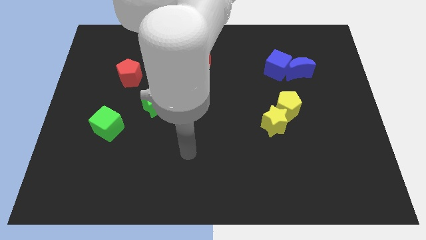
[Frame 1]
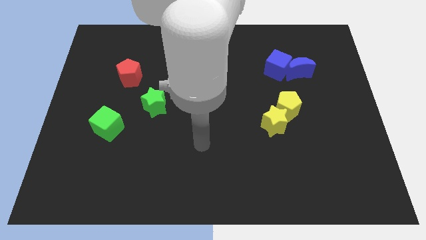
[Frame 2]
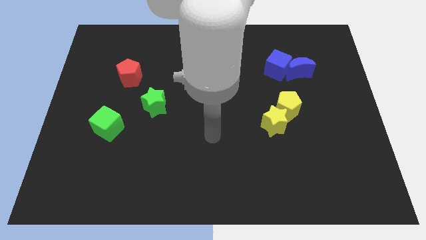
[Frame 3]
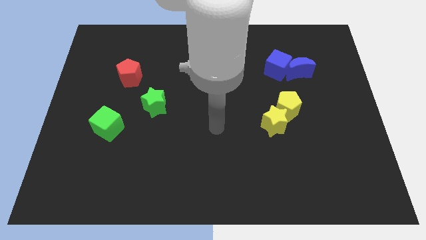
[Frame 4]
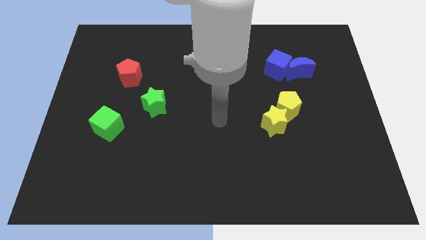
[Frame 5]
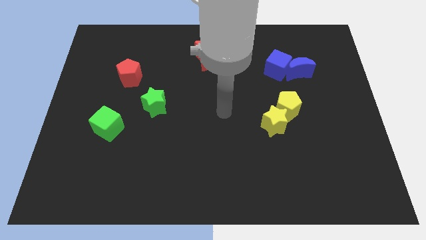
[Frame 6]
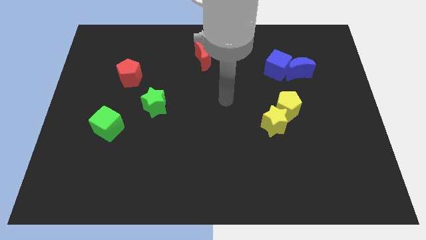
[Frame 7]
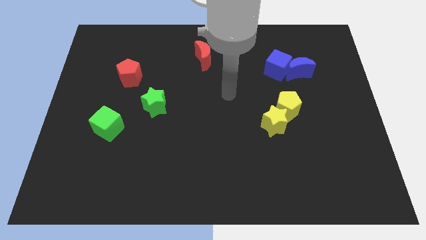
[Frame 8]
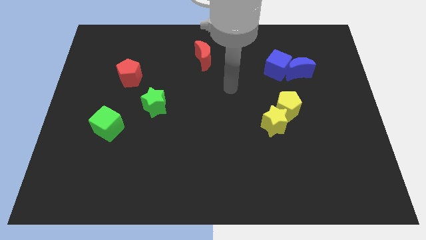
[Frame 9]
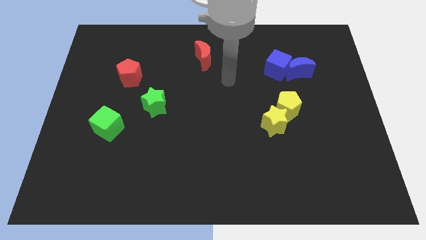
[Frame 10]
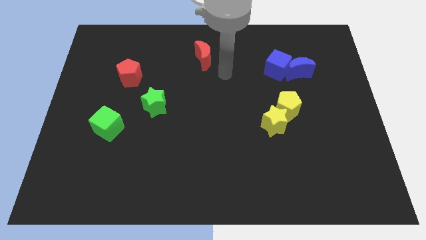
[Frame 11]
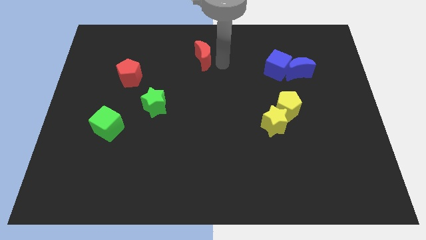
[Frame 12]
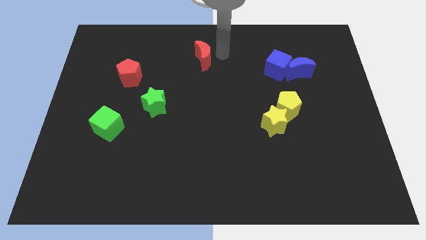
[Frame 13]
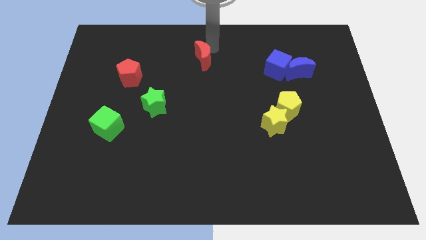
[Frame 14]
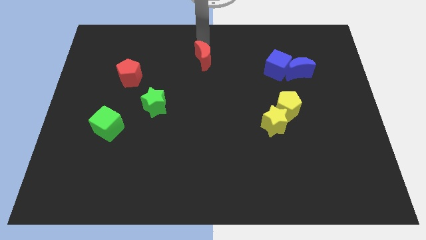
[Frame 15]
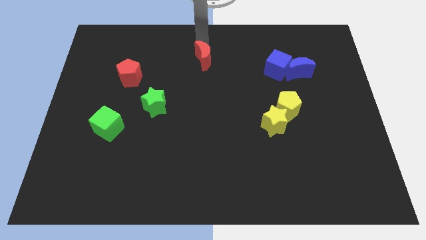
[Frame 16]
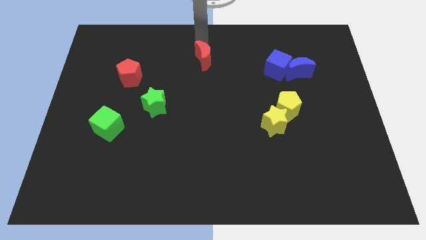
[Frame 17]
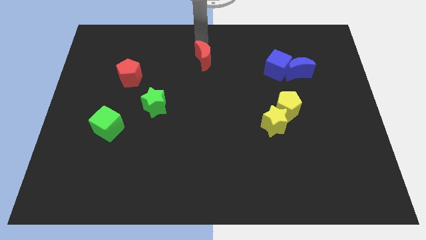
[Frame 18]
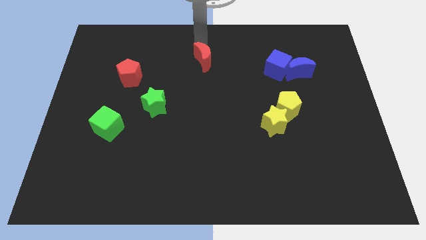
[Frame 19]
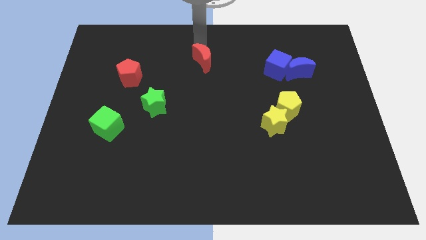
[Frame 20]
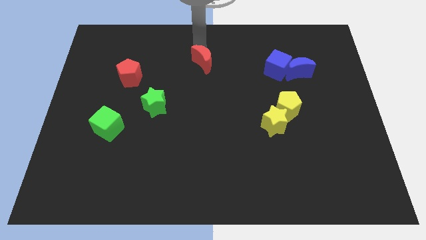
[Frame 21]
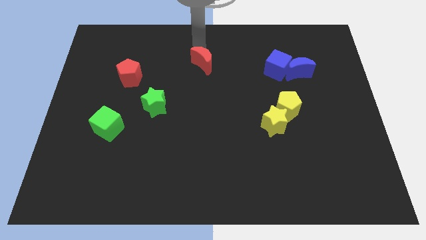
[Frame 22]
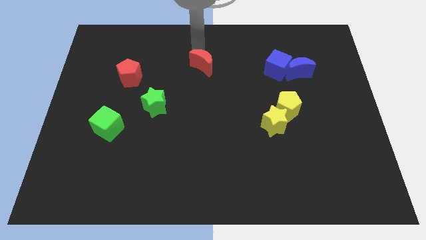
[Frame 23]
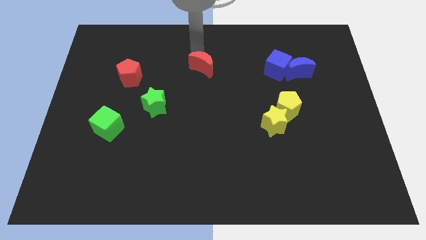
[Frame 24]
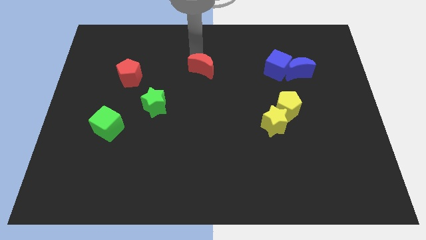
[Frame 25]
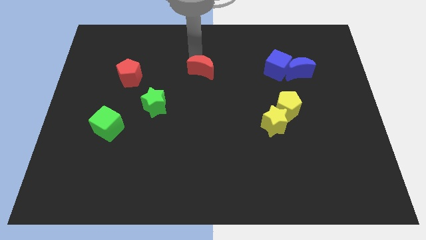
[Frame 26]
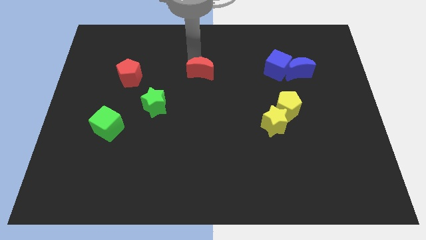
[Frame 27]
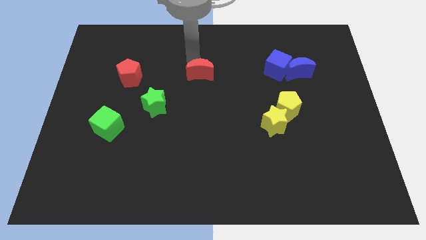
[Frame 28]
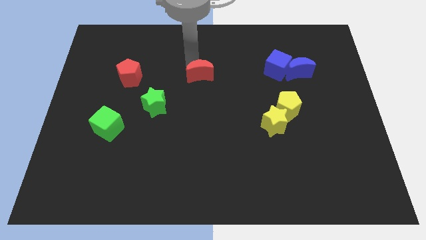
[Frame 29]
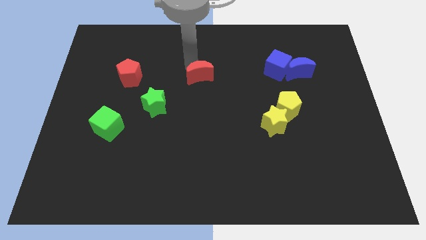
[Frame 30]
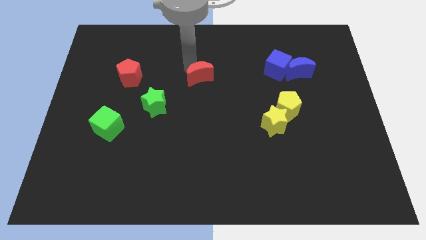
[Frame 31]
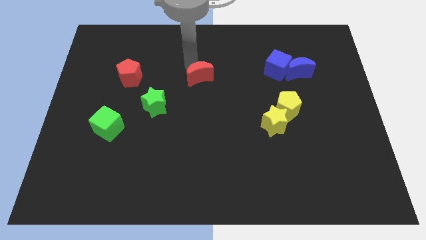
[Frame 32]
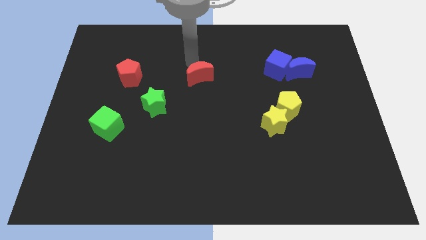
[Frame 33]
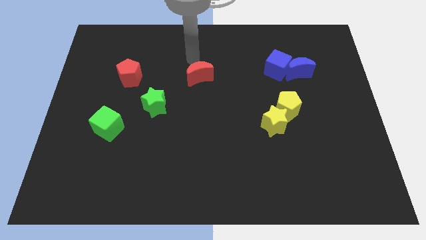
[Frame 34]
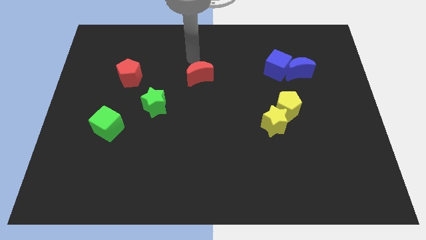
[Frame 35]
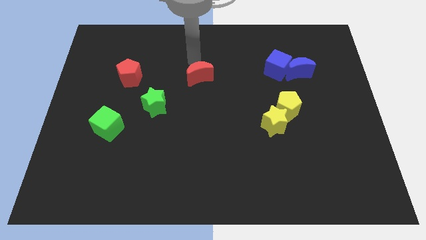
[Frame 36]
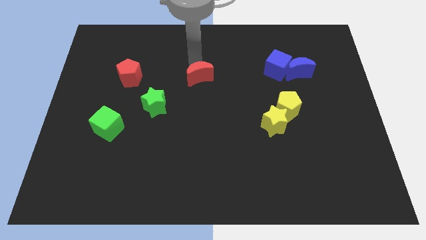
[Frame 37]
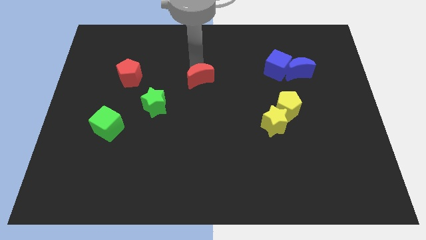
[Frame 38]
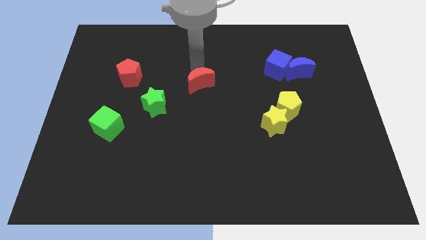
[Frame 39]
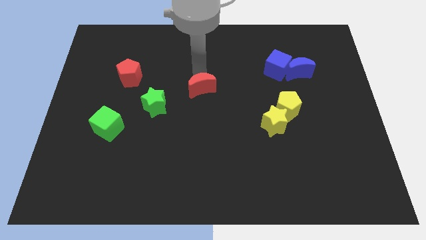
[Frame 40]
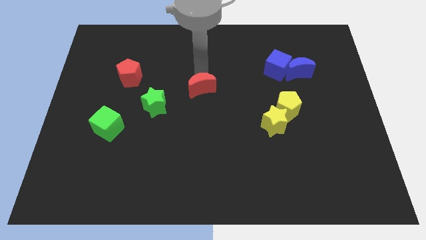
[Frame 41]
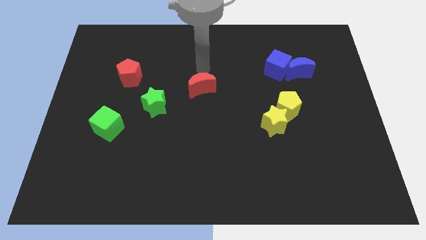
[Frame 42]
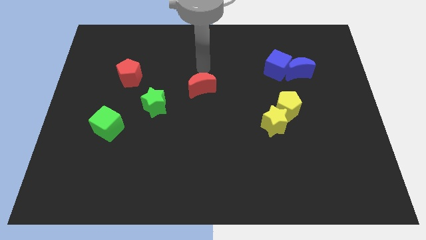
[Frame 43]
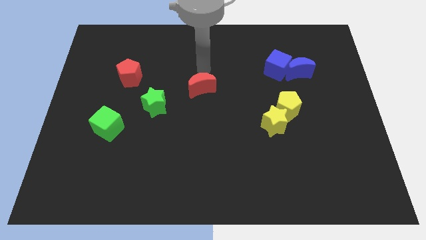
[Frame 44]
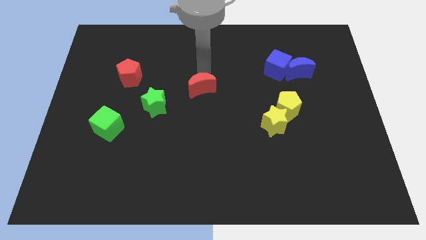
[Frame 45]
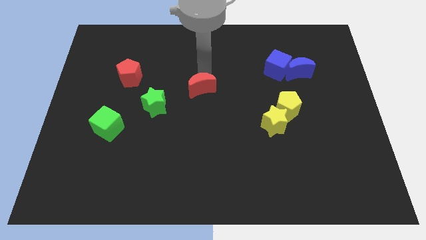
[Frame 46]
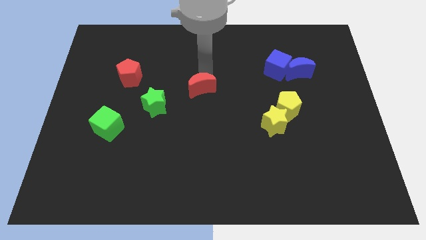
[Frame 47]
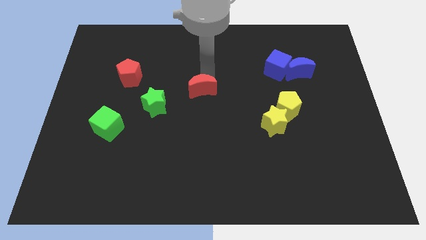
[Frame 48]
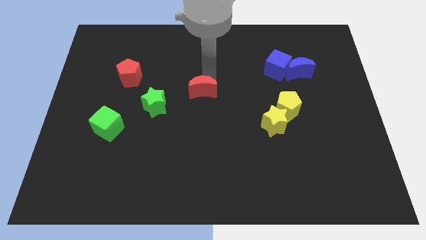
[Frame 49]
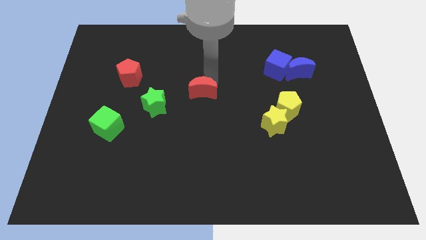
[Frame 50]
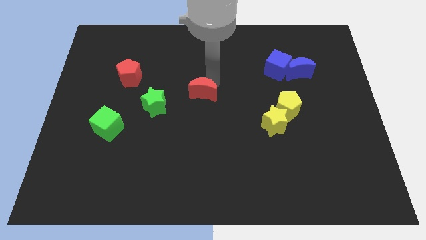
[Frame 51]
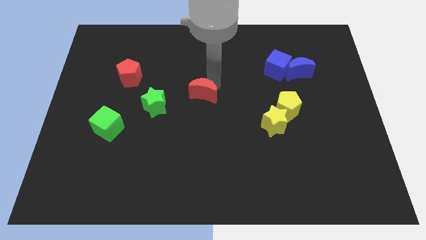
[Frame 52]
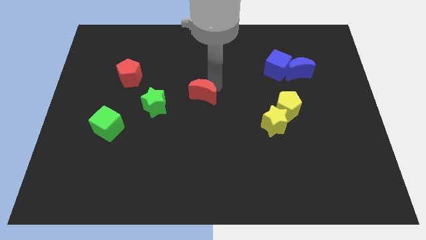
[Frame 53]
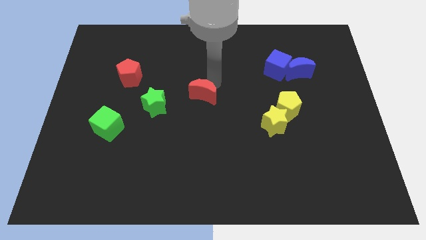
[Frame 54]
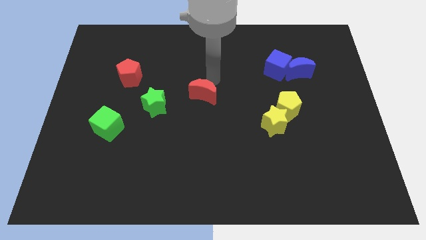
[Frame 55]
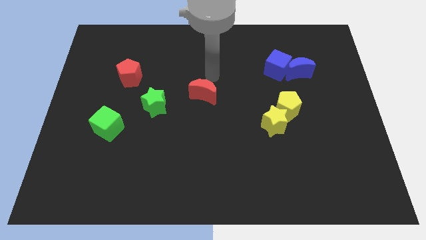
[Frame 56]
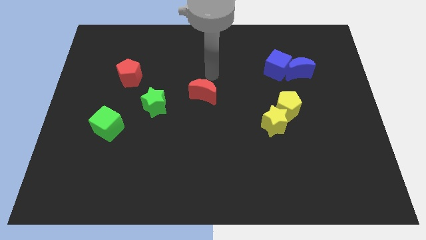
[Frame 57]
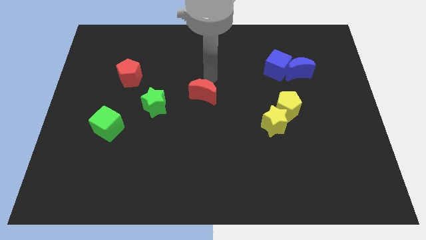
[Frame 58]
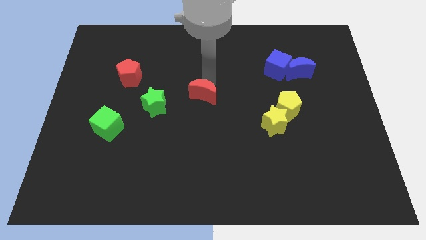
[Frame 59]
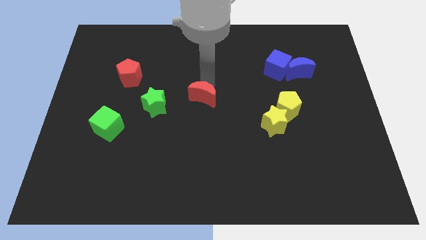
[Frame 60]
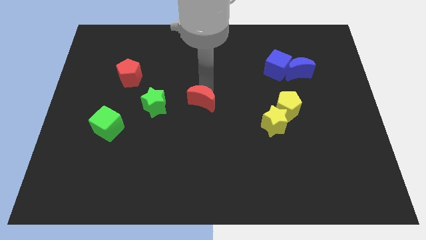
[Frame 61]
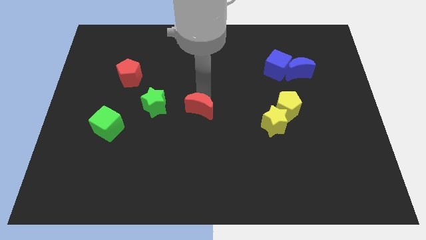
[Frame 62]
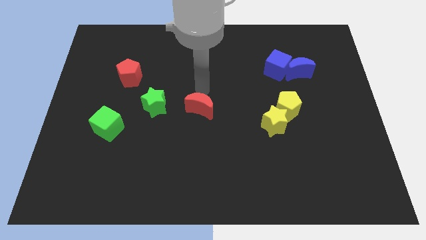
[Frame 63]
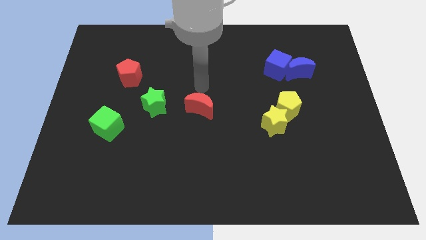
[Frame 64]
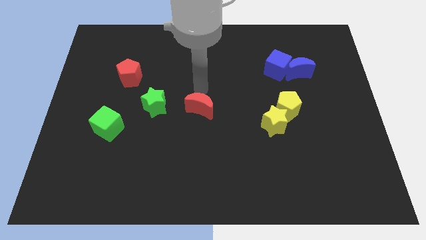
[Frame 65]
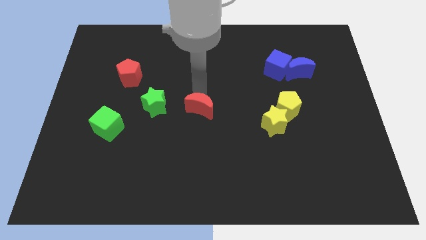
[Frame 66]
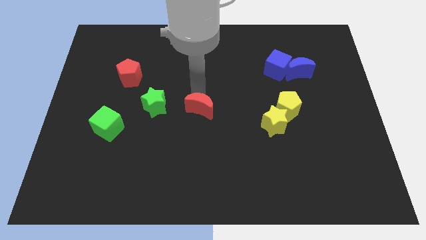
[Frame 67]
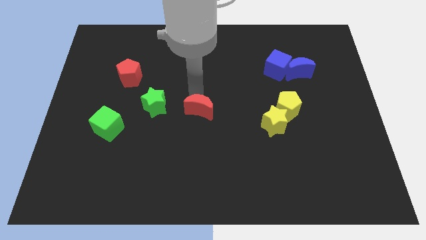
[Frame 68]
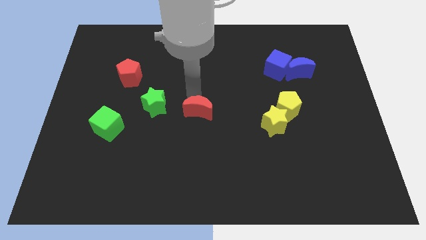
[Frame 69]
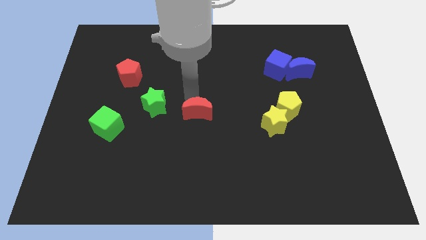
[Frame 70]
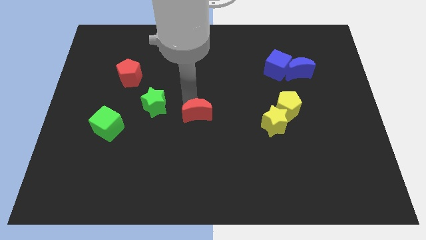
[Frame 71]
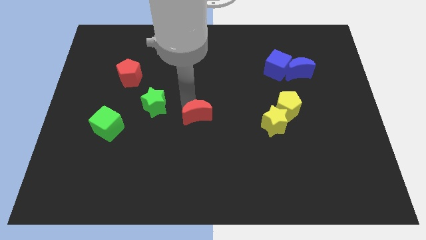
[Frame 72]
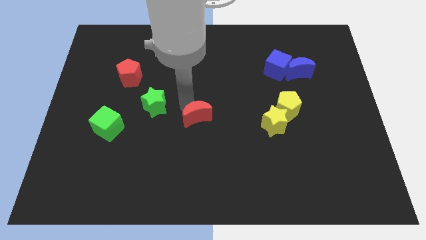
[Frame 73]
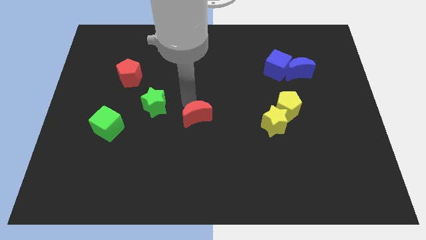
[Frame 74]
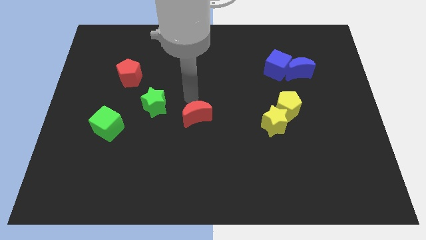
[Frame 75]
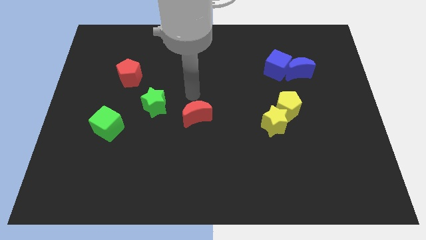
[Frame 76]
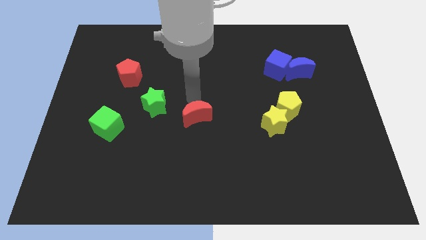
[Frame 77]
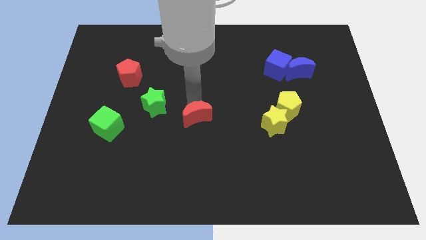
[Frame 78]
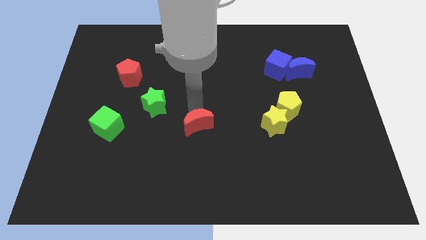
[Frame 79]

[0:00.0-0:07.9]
slide the red moon downwards
